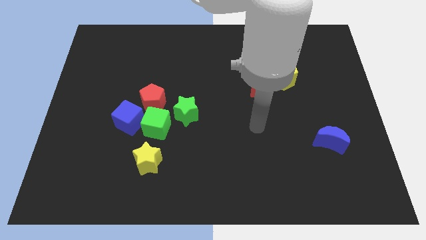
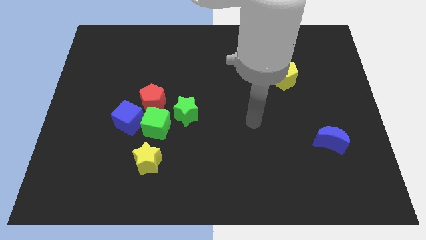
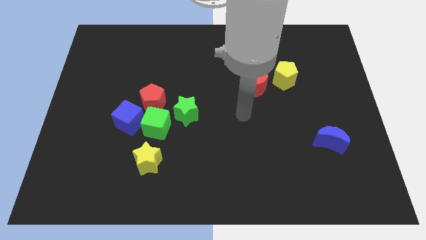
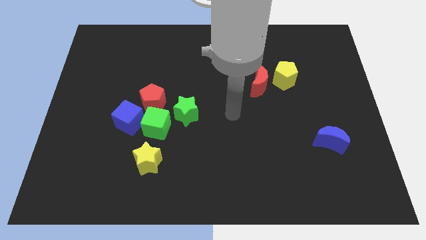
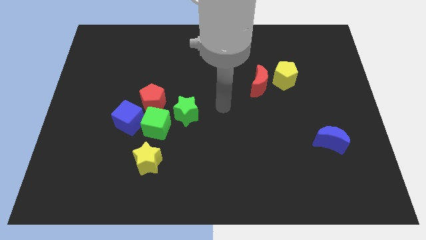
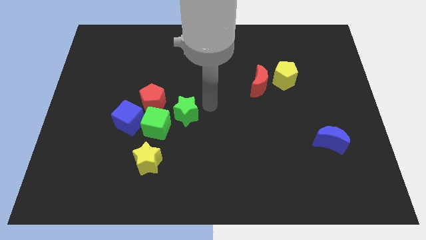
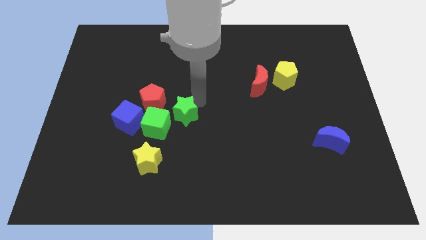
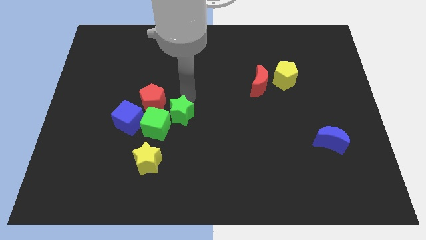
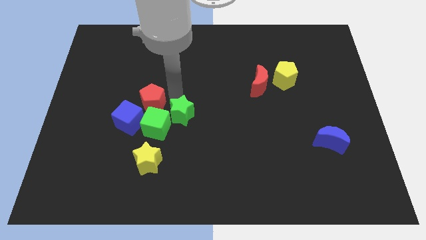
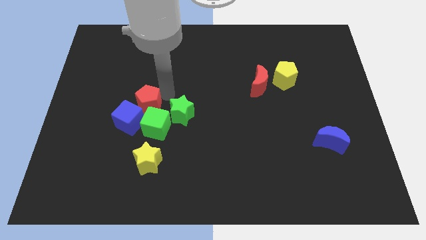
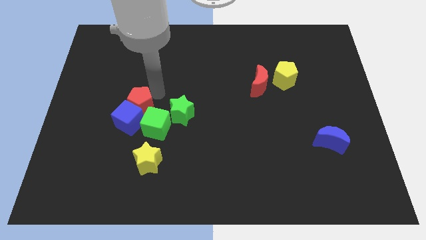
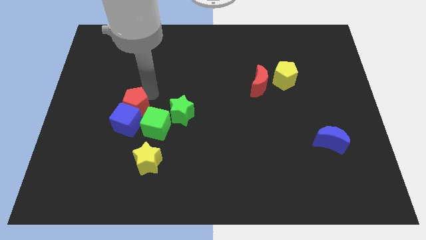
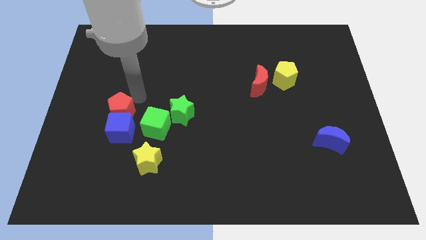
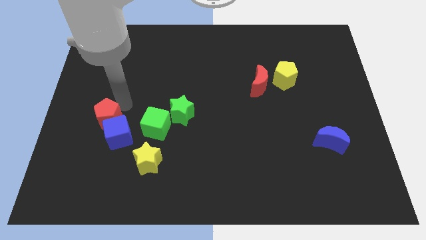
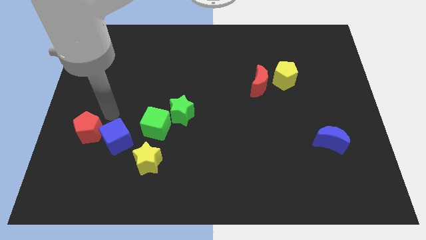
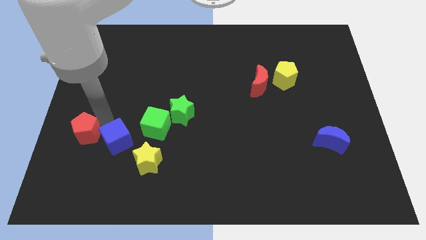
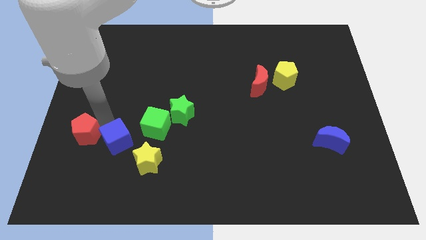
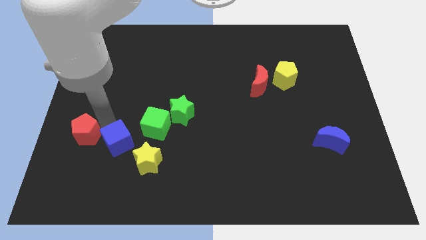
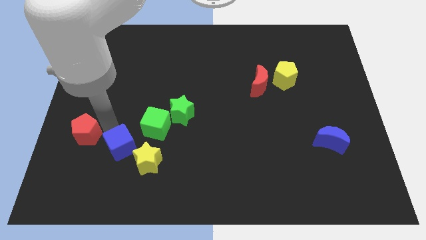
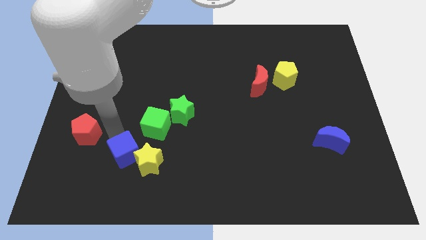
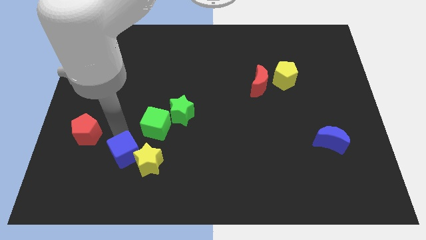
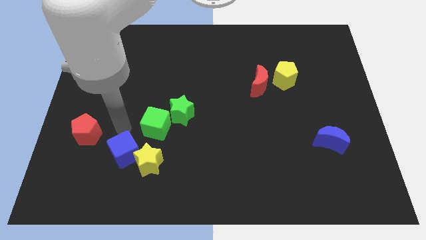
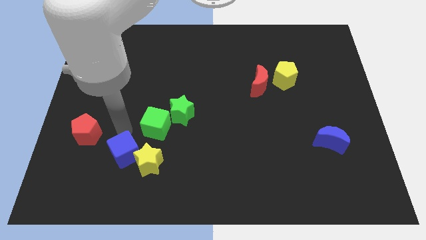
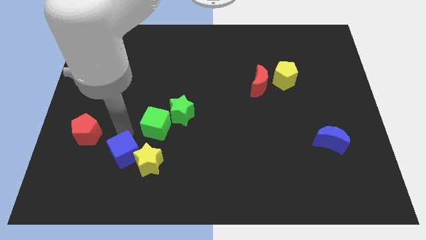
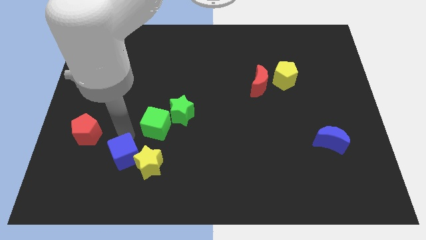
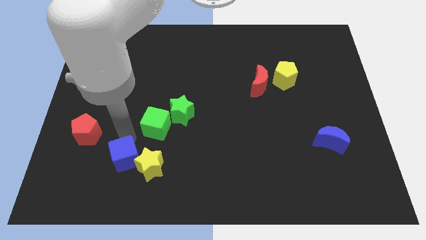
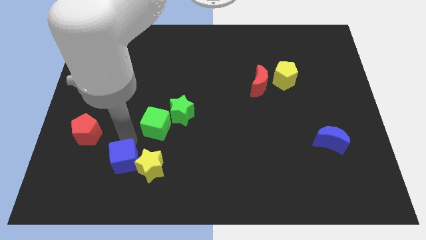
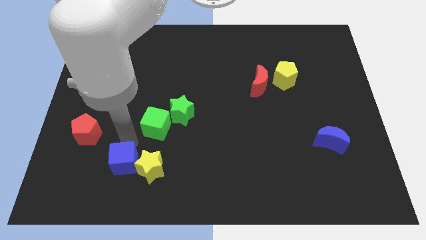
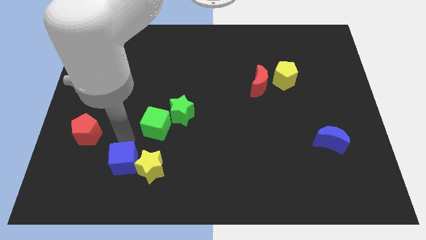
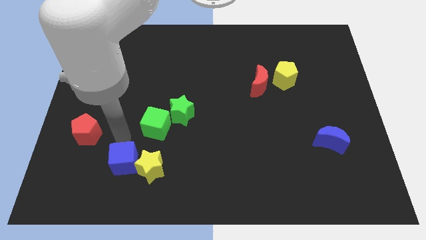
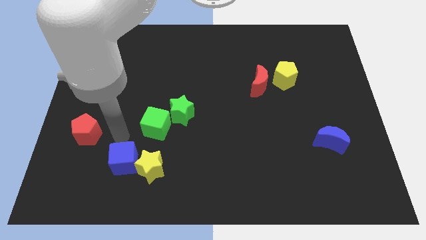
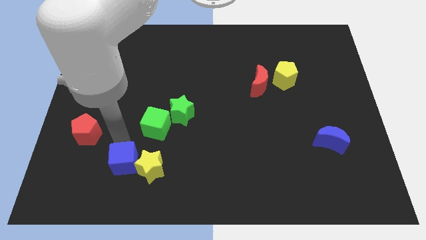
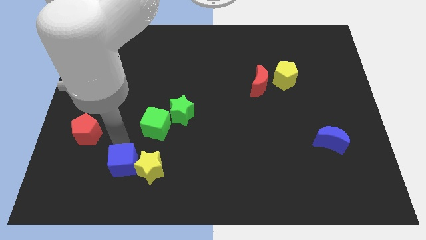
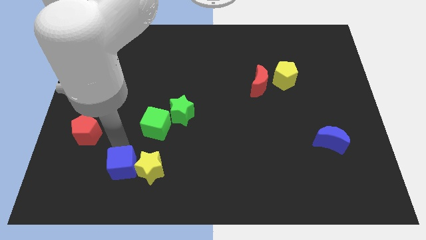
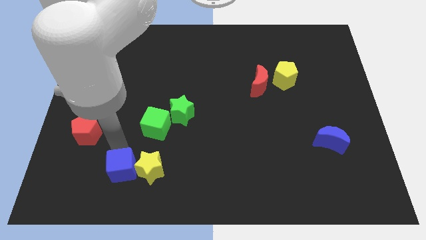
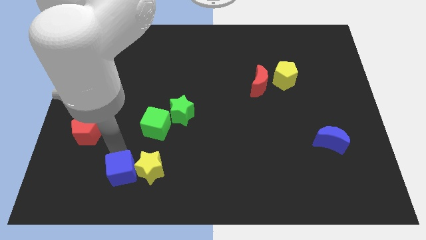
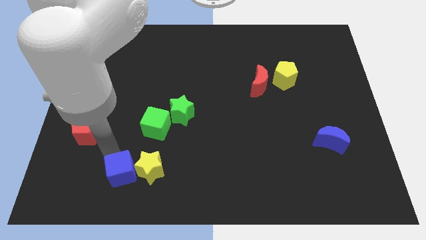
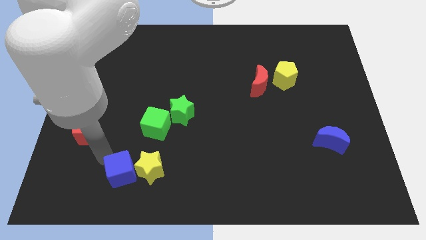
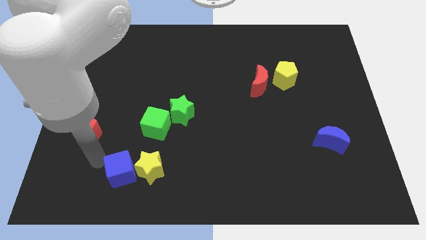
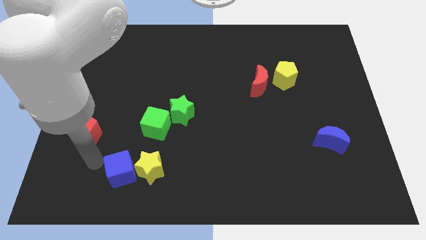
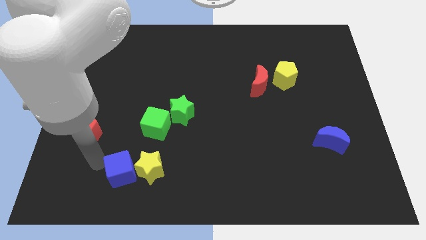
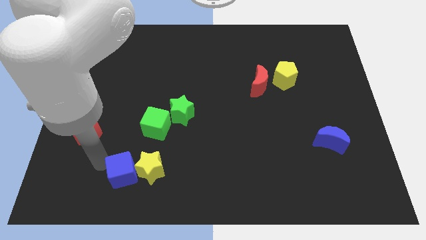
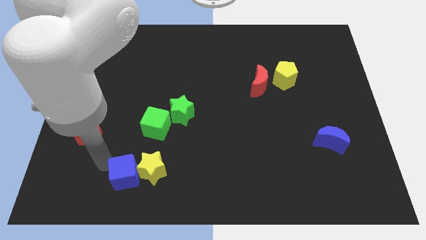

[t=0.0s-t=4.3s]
slightly move the blue cube down and to the right

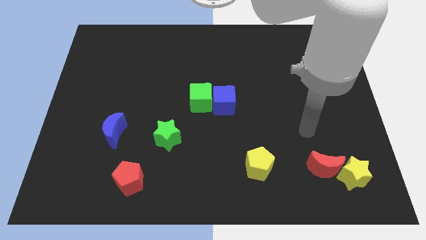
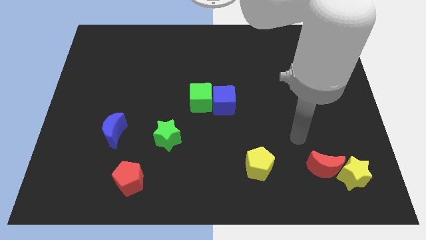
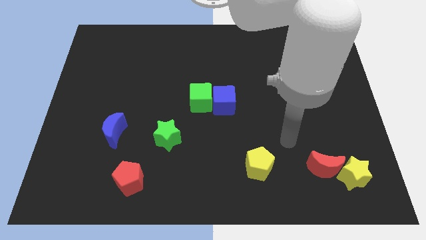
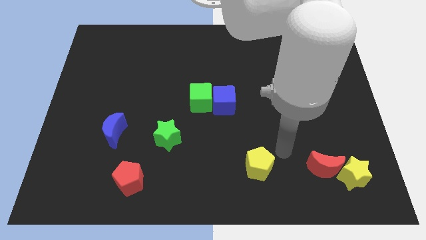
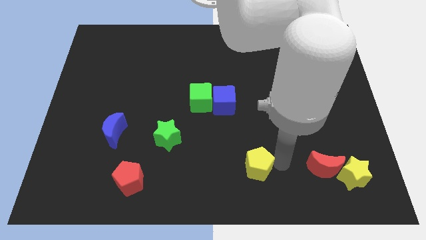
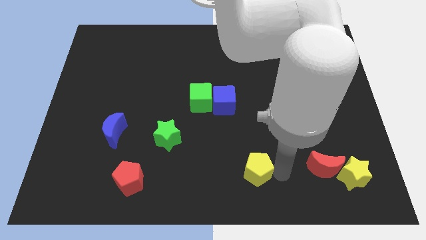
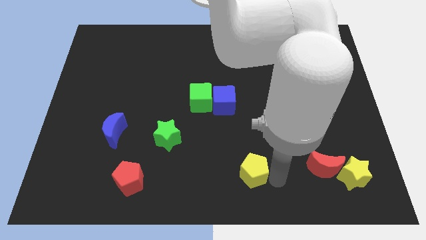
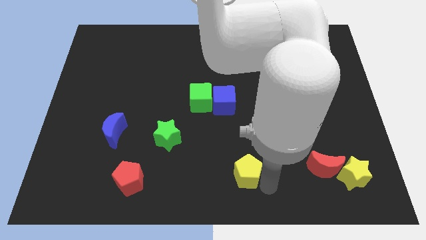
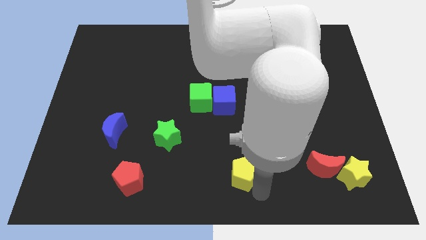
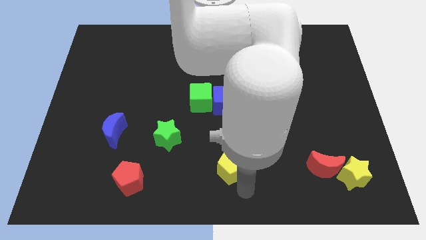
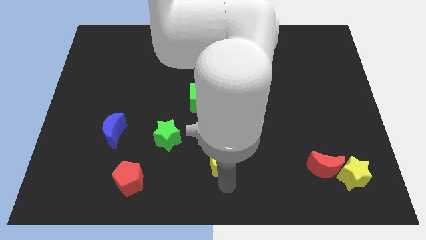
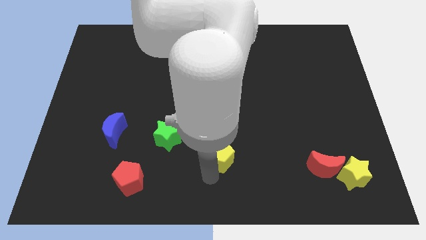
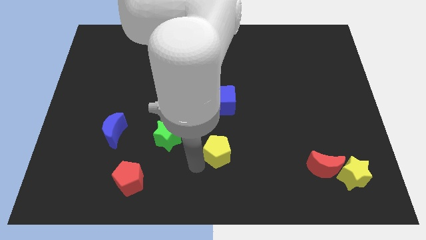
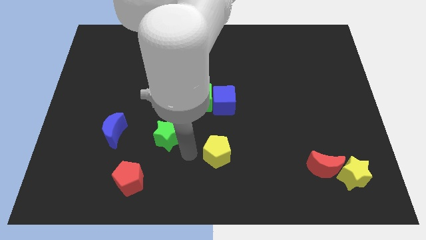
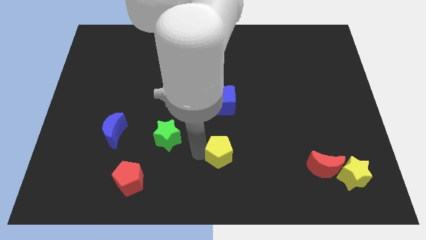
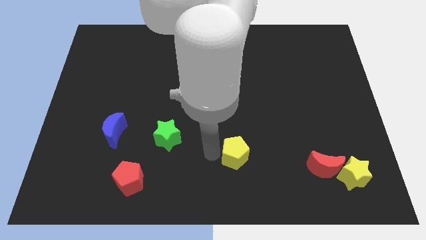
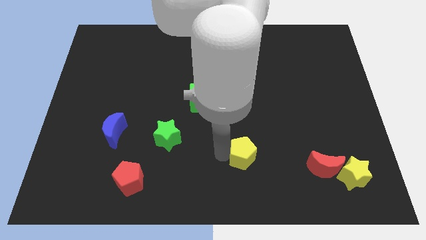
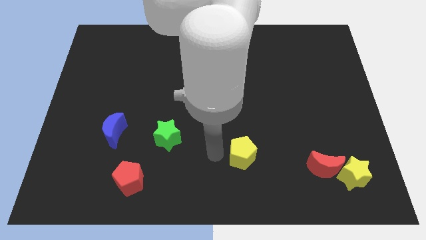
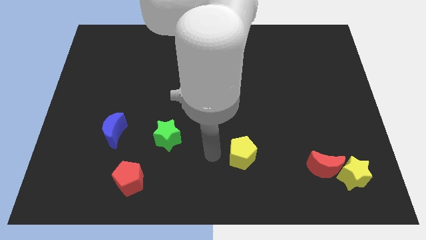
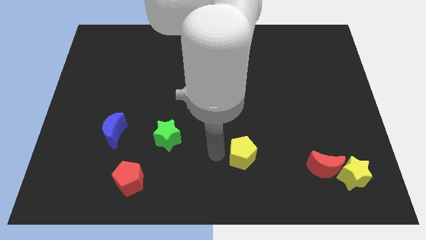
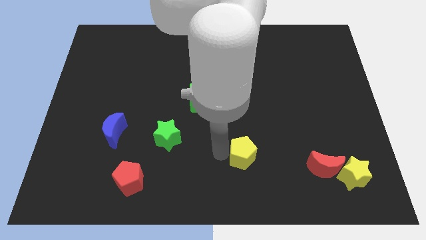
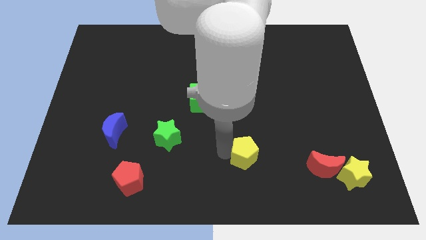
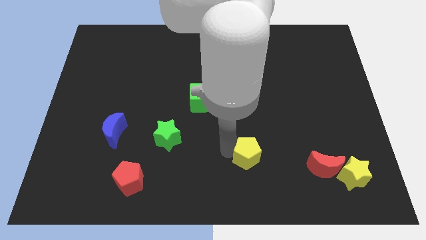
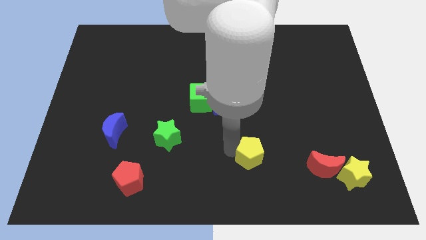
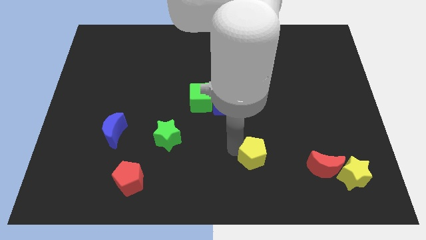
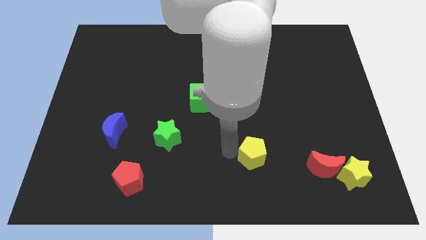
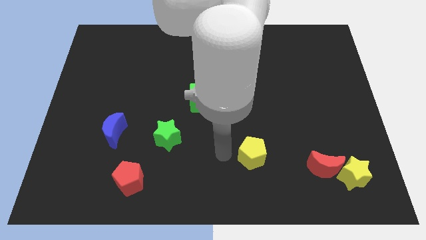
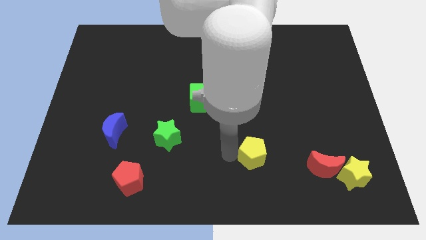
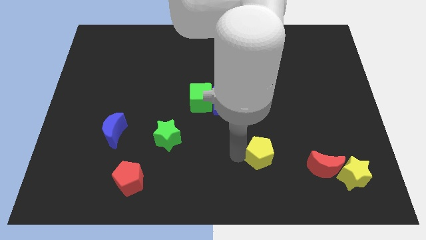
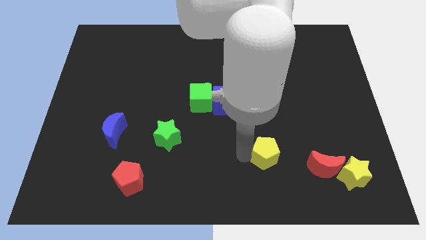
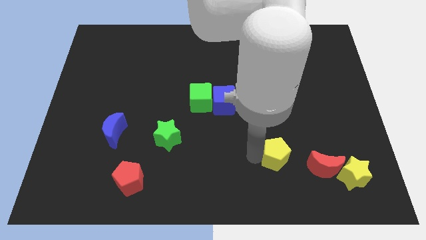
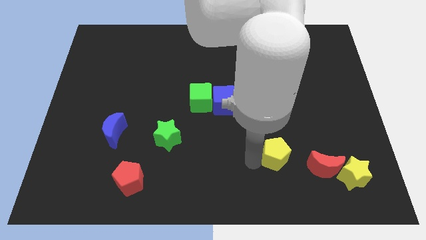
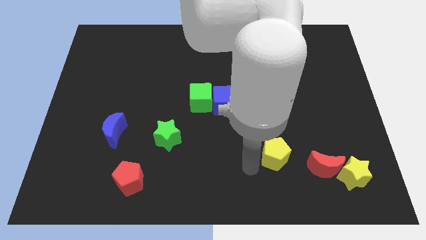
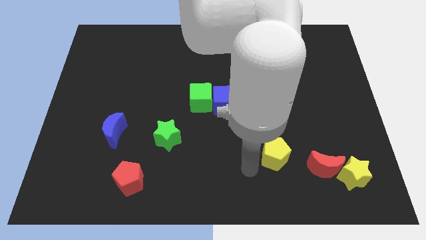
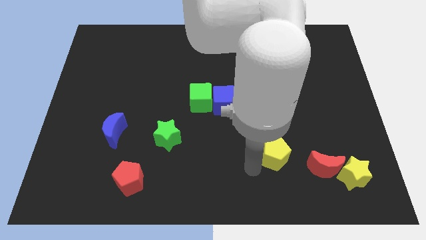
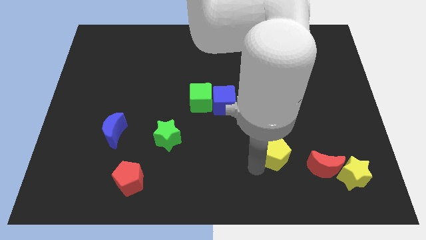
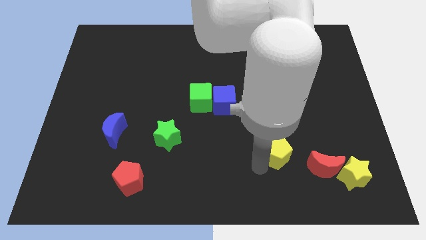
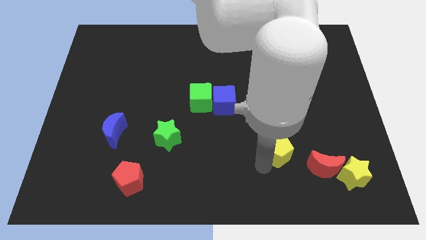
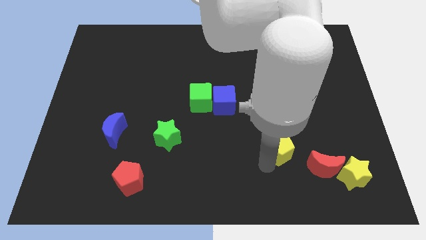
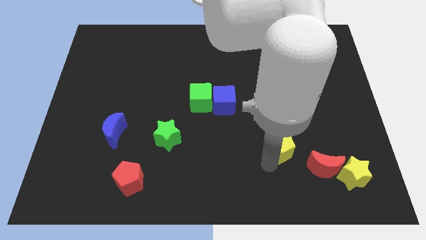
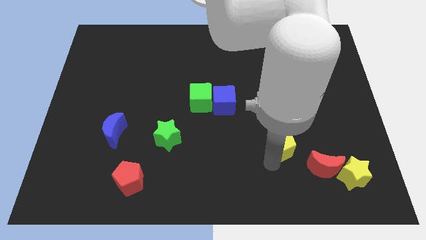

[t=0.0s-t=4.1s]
push the yellow pentagon upwards and then right a little
